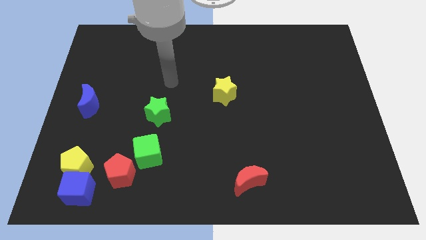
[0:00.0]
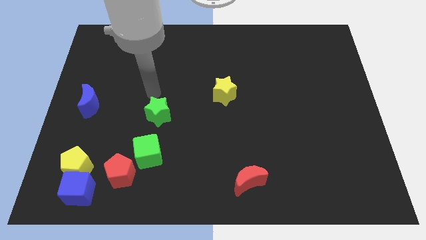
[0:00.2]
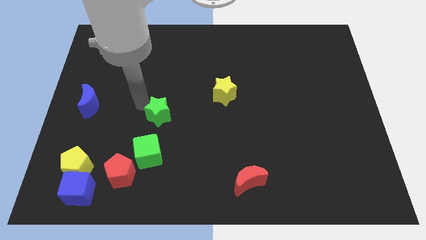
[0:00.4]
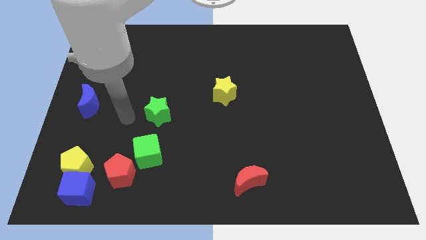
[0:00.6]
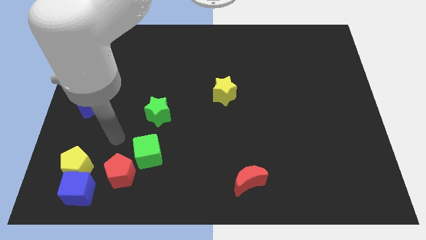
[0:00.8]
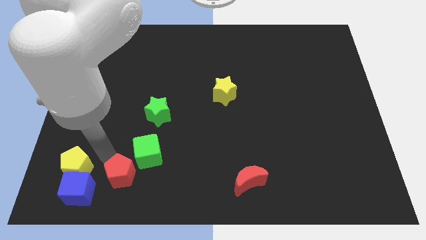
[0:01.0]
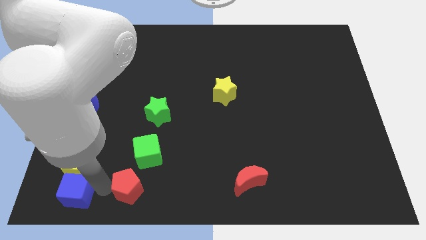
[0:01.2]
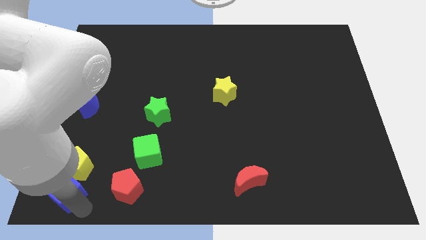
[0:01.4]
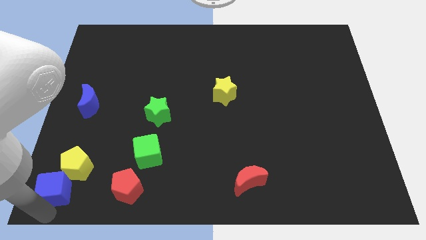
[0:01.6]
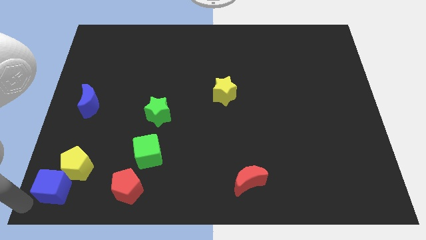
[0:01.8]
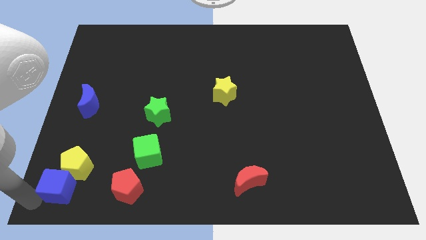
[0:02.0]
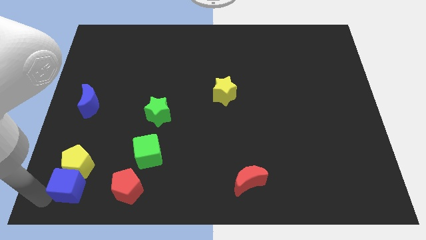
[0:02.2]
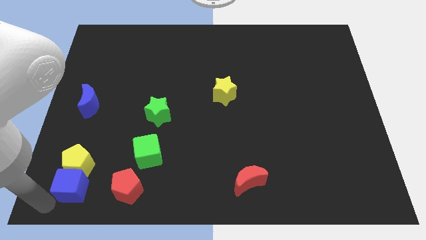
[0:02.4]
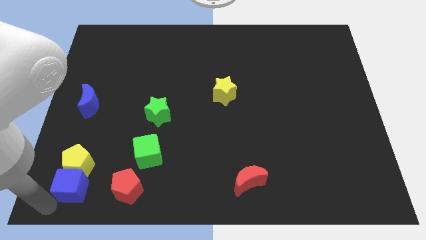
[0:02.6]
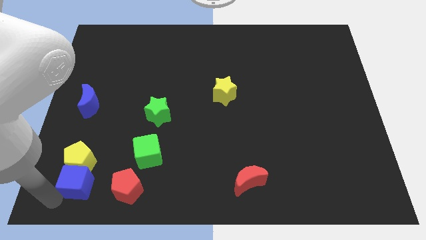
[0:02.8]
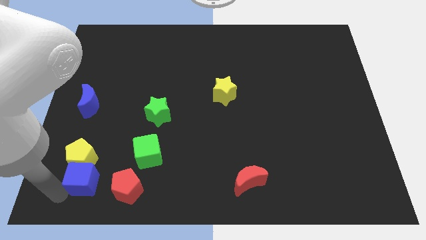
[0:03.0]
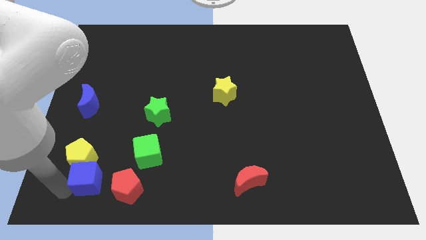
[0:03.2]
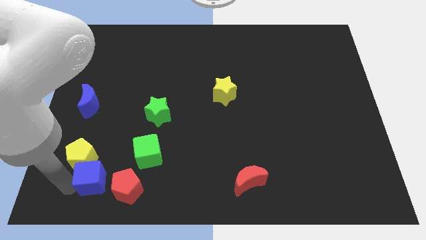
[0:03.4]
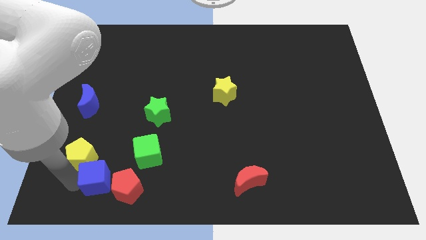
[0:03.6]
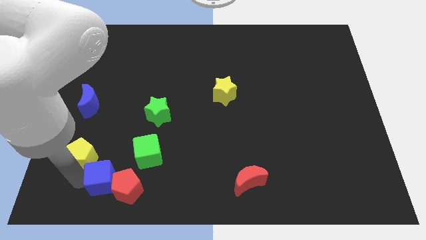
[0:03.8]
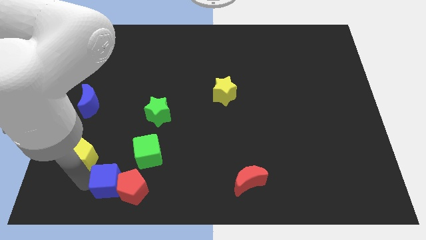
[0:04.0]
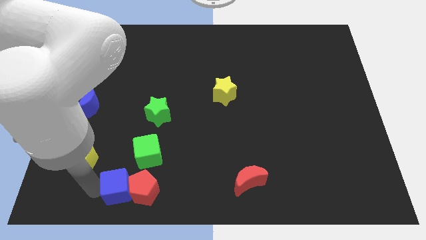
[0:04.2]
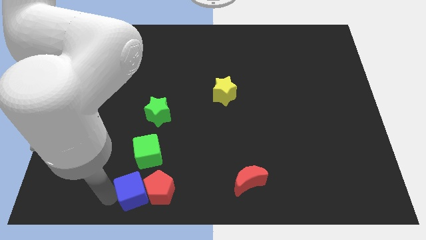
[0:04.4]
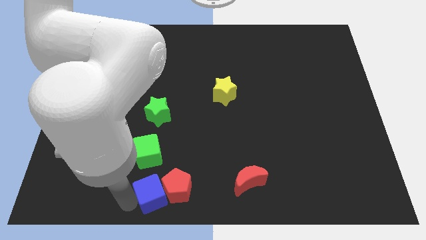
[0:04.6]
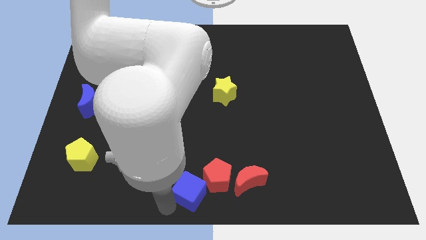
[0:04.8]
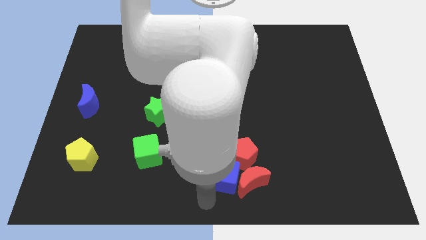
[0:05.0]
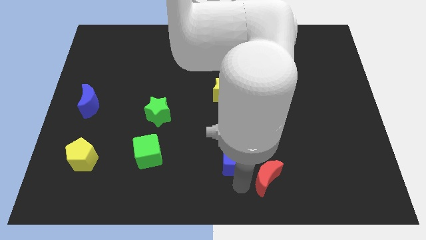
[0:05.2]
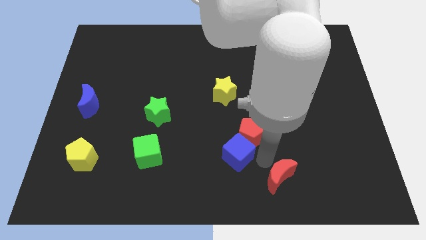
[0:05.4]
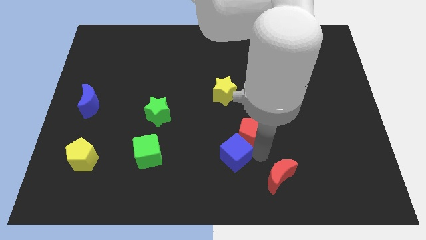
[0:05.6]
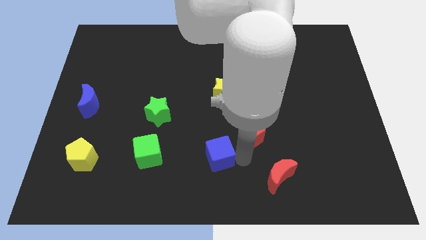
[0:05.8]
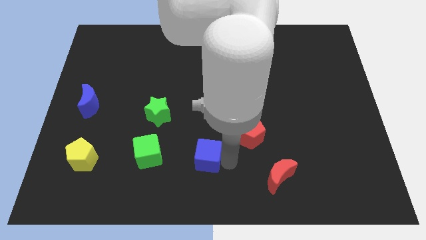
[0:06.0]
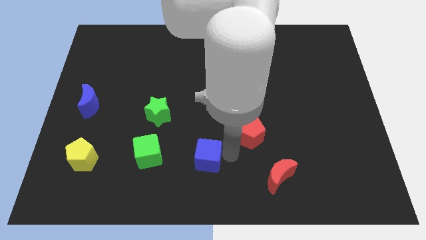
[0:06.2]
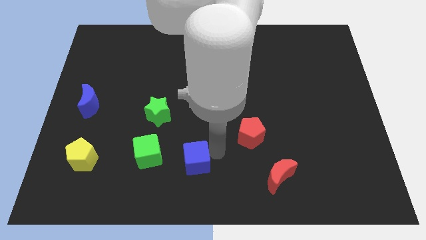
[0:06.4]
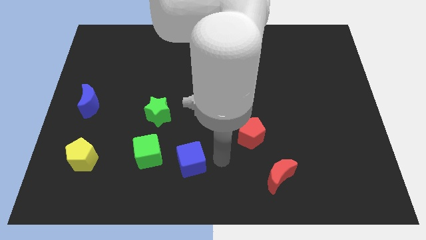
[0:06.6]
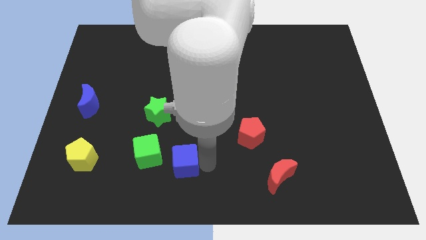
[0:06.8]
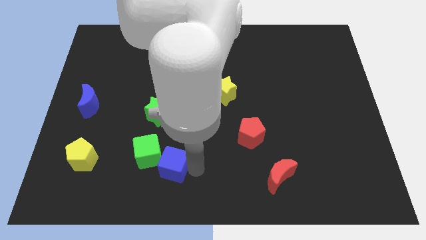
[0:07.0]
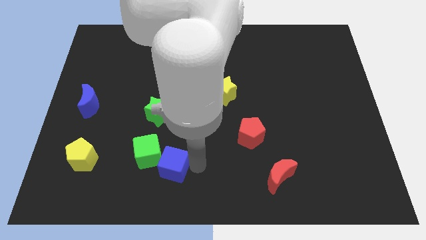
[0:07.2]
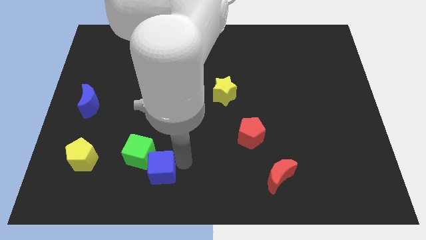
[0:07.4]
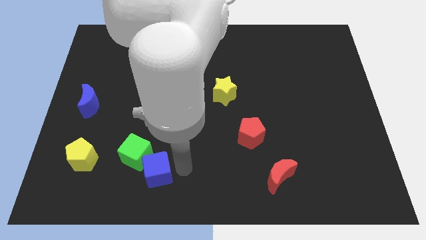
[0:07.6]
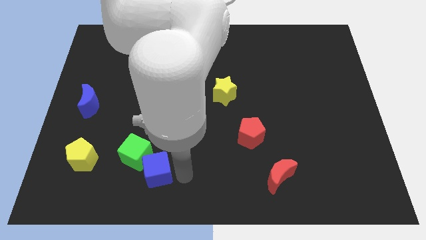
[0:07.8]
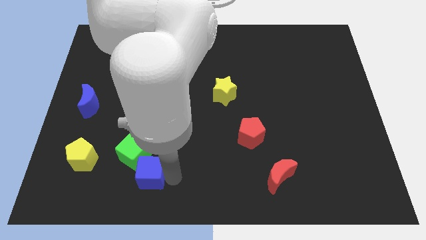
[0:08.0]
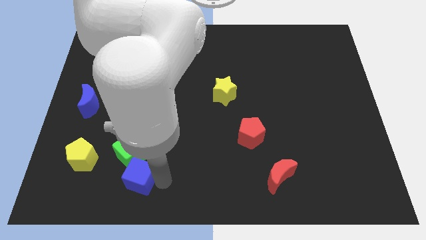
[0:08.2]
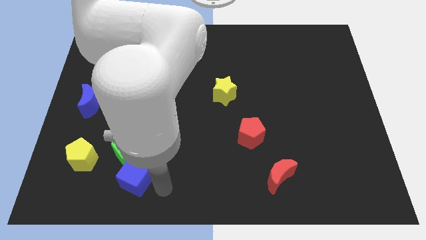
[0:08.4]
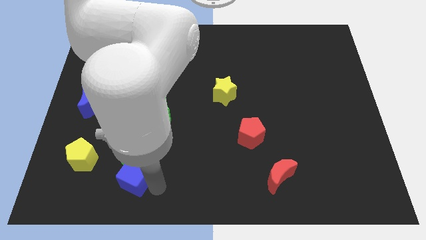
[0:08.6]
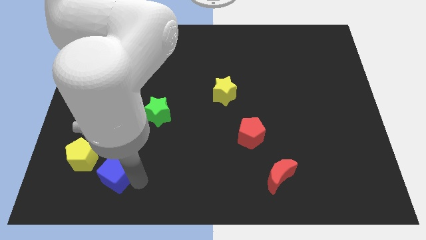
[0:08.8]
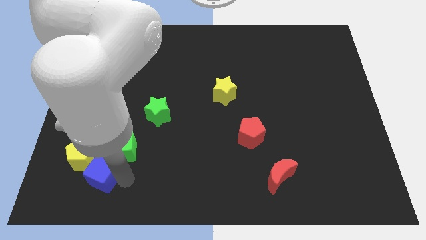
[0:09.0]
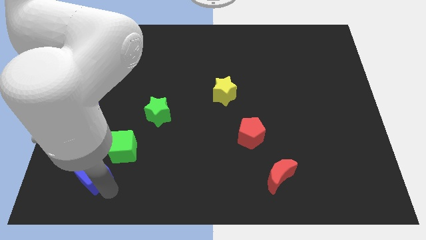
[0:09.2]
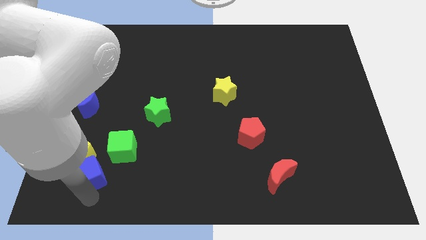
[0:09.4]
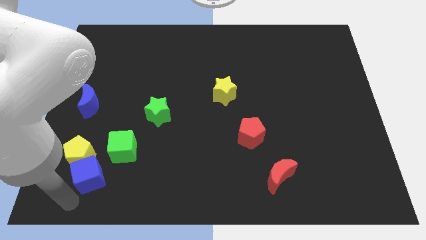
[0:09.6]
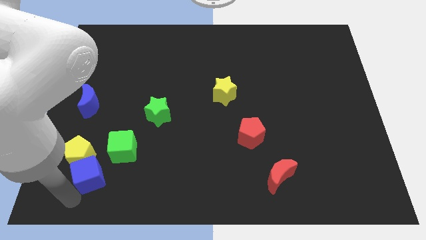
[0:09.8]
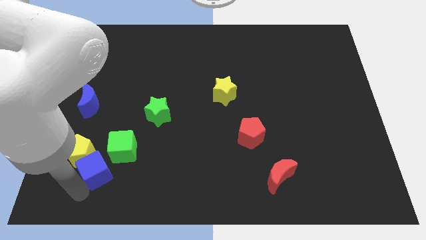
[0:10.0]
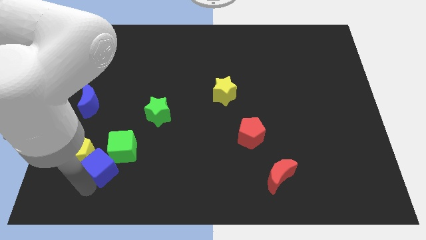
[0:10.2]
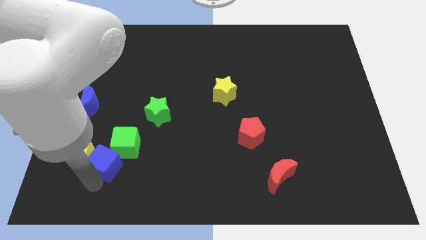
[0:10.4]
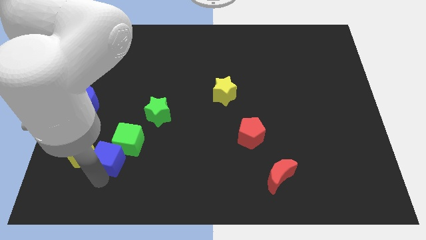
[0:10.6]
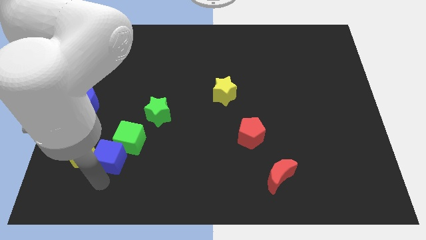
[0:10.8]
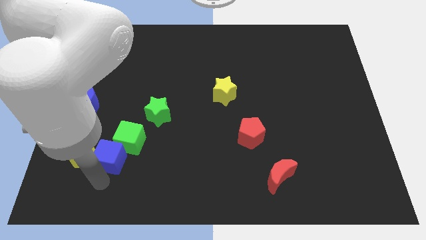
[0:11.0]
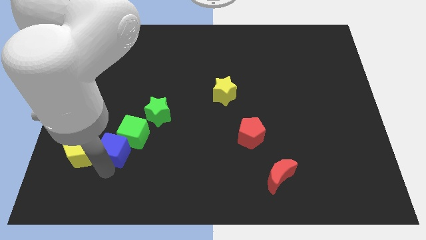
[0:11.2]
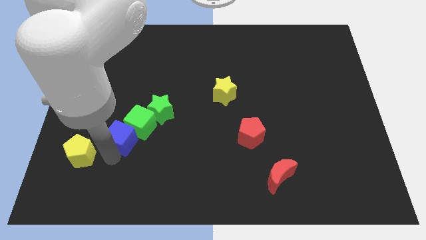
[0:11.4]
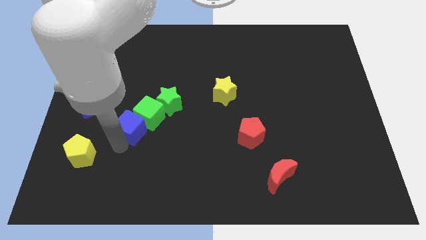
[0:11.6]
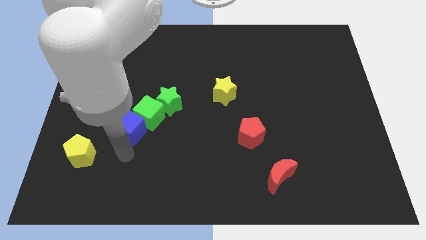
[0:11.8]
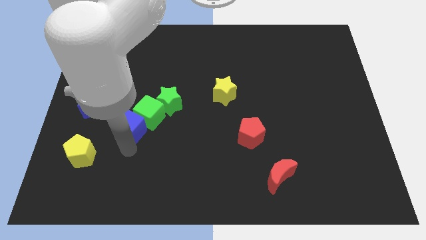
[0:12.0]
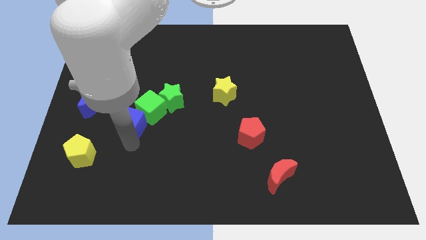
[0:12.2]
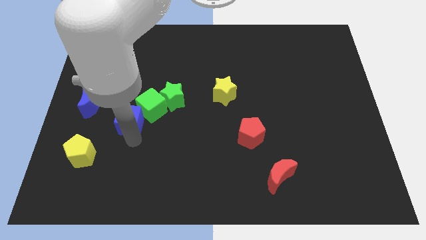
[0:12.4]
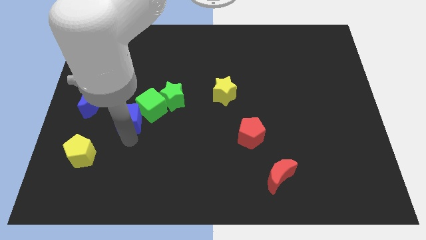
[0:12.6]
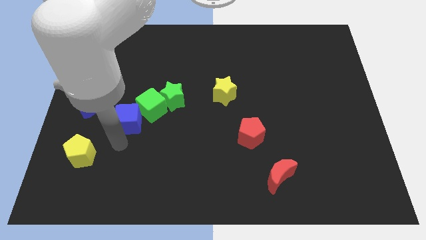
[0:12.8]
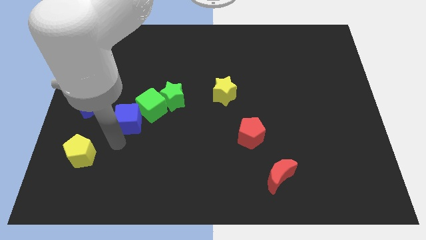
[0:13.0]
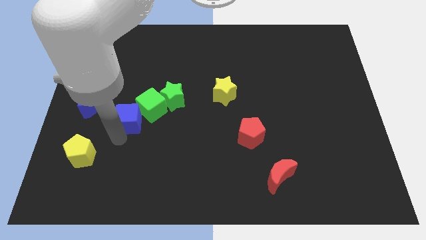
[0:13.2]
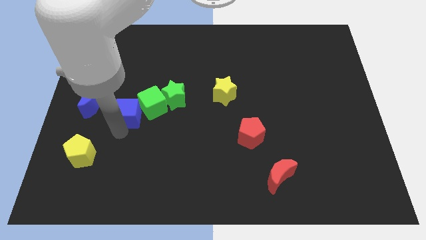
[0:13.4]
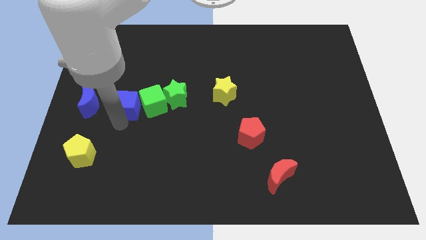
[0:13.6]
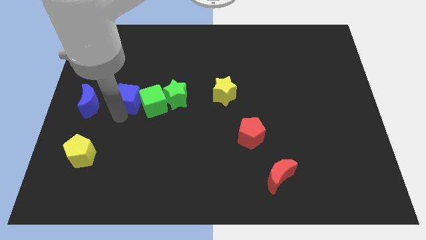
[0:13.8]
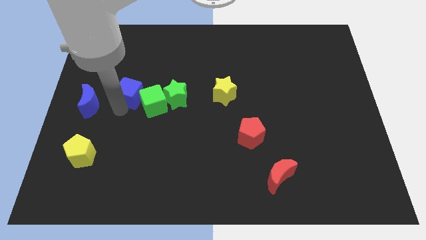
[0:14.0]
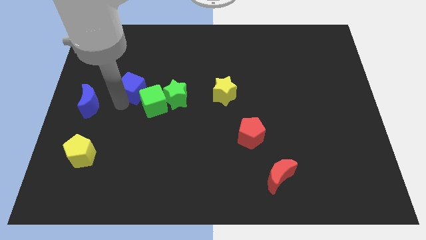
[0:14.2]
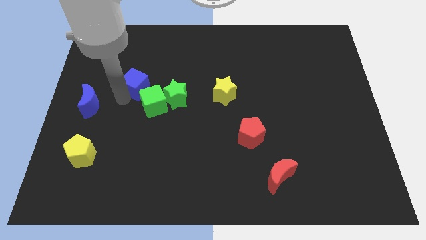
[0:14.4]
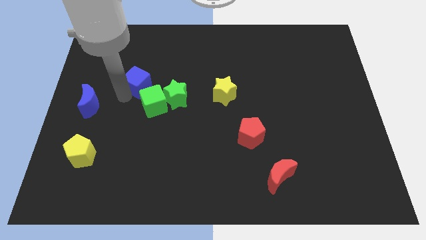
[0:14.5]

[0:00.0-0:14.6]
put the blue cube to the top left side of the green star
